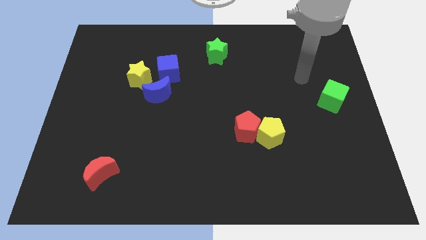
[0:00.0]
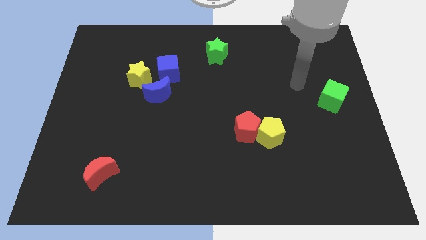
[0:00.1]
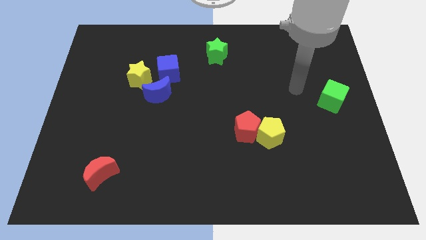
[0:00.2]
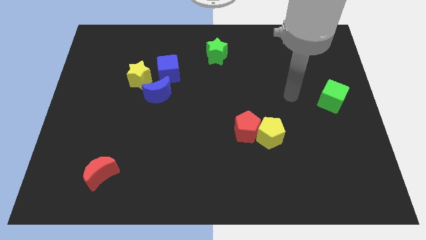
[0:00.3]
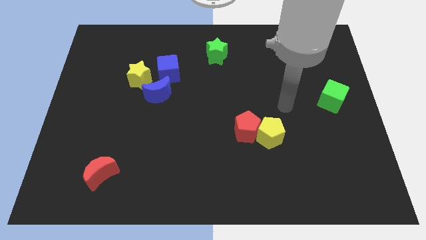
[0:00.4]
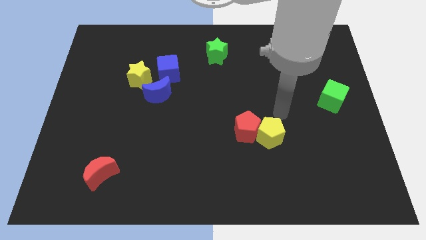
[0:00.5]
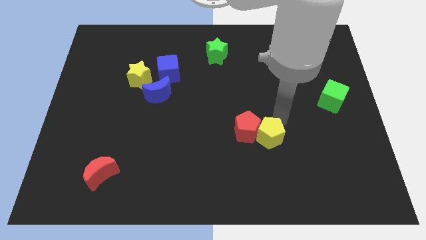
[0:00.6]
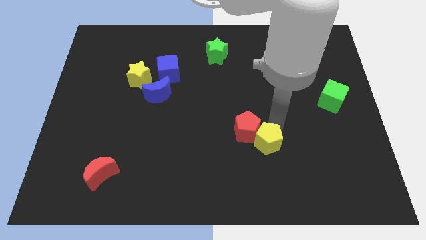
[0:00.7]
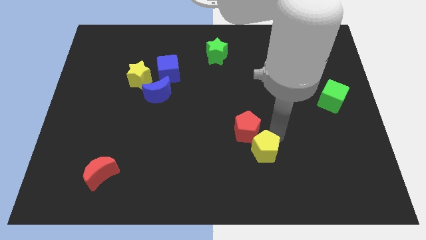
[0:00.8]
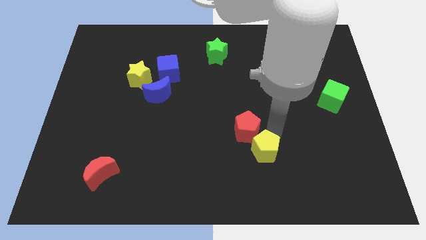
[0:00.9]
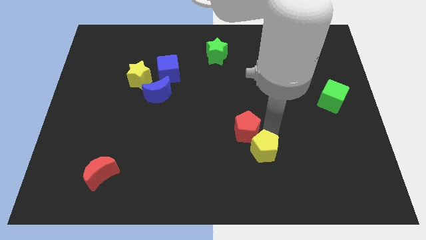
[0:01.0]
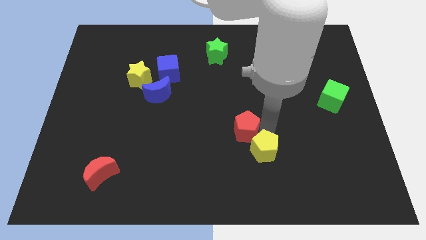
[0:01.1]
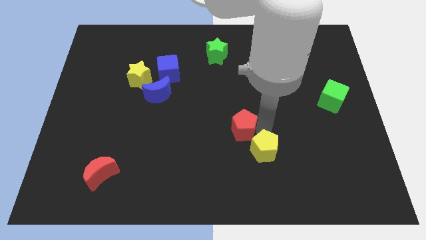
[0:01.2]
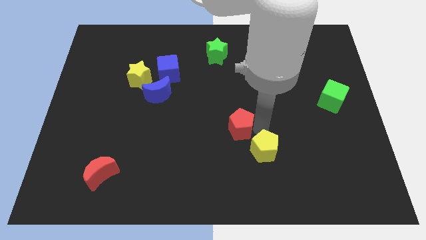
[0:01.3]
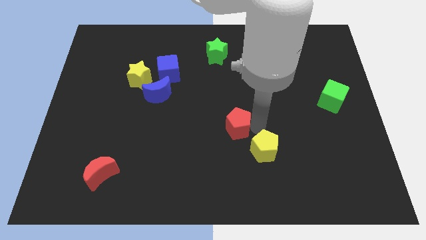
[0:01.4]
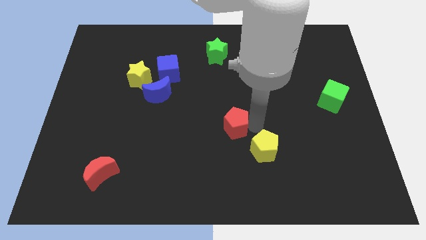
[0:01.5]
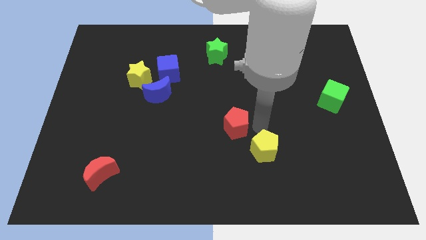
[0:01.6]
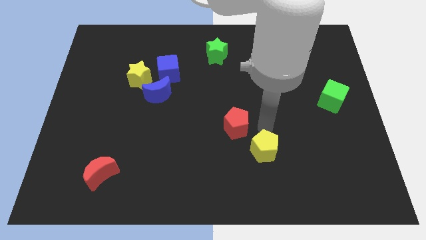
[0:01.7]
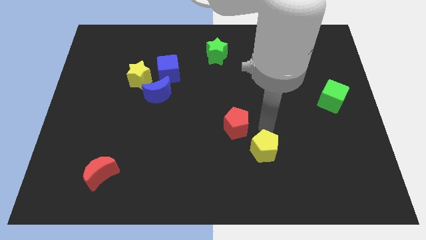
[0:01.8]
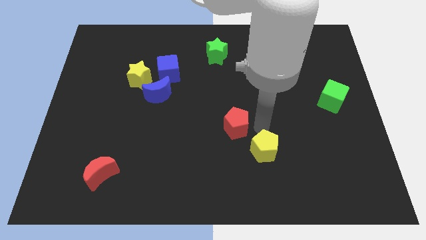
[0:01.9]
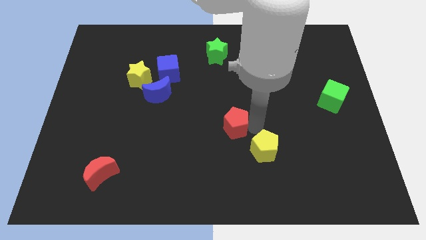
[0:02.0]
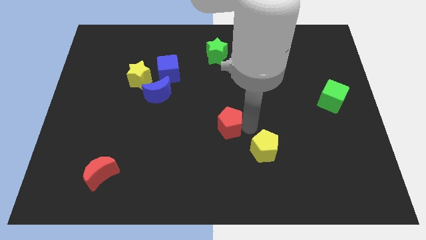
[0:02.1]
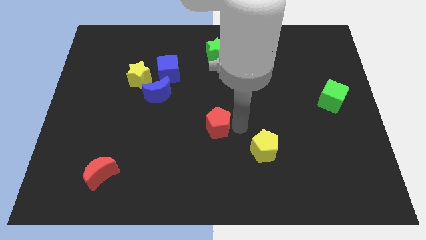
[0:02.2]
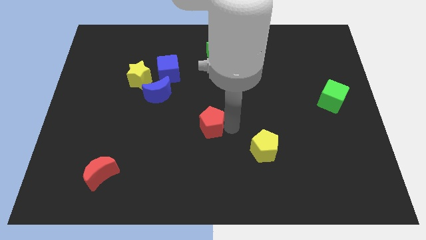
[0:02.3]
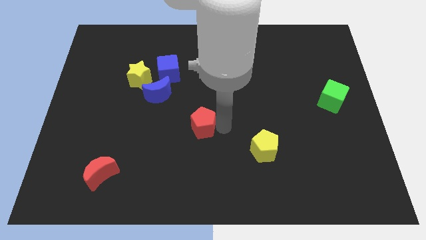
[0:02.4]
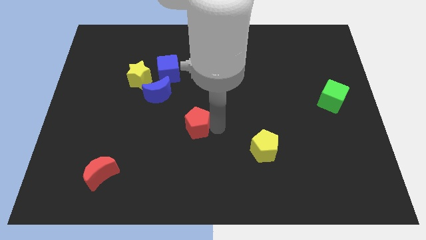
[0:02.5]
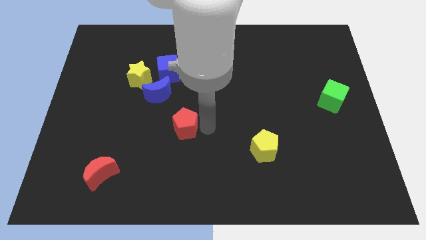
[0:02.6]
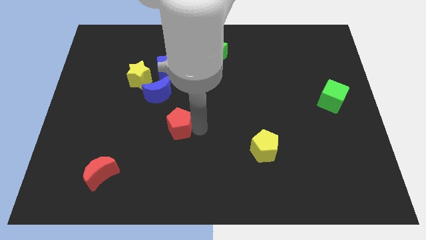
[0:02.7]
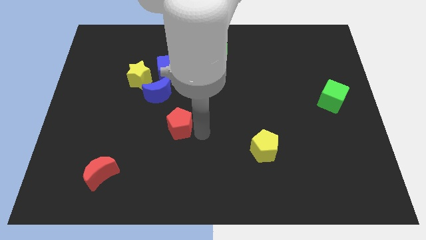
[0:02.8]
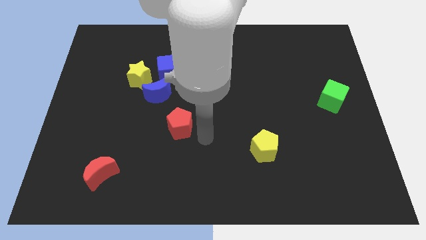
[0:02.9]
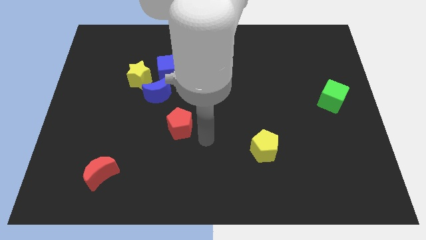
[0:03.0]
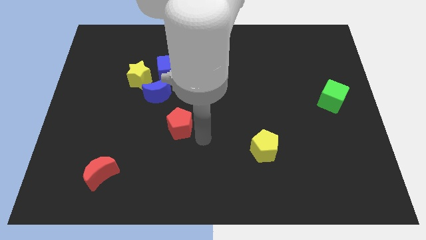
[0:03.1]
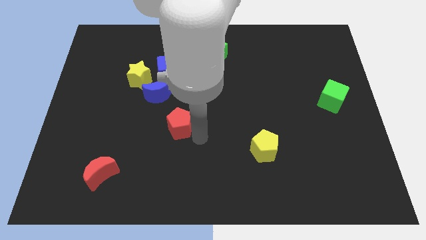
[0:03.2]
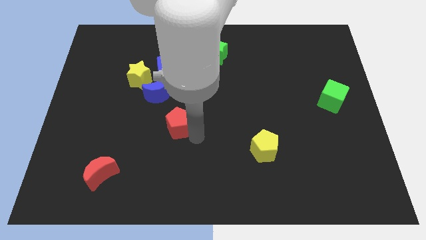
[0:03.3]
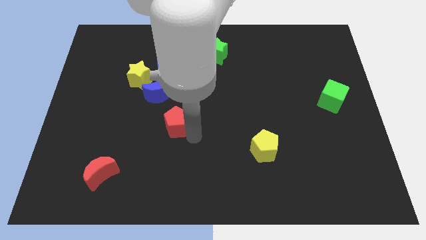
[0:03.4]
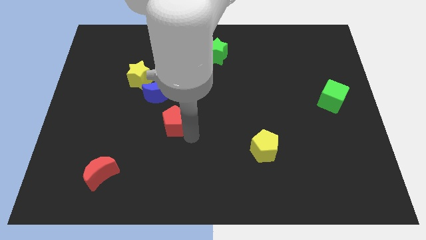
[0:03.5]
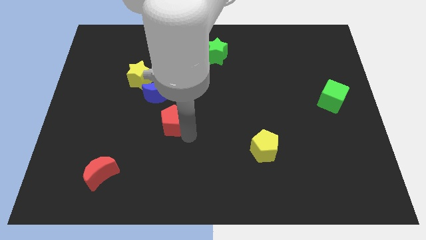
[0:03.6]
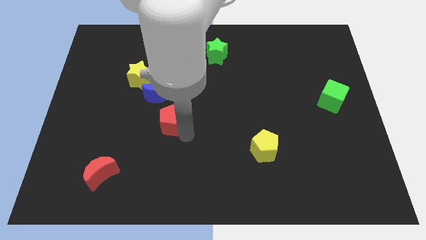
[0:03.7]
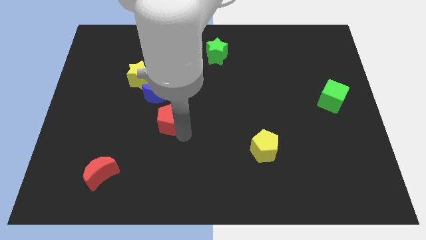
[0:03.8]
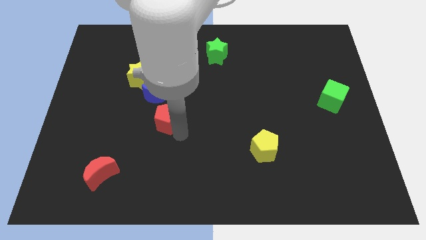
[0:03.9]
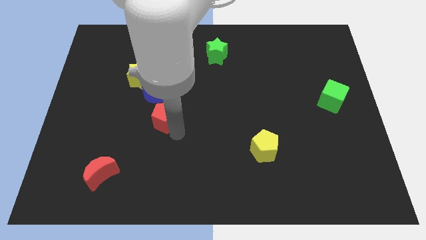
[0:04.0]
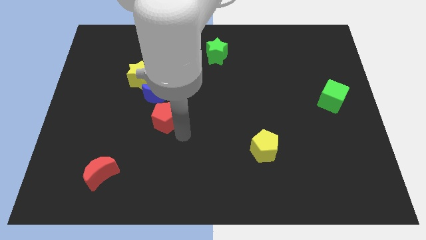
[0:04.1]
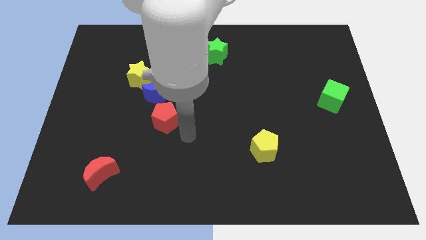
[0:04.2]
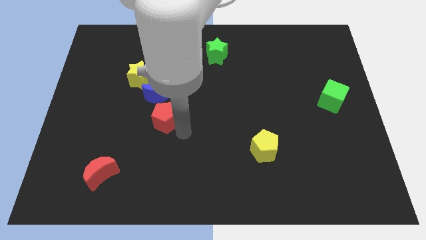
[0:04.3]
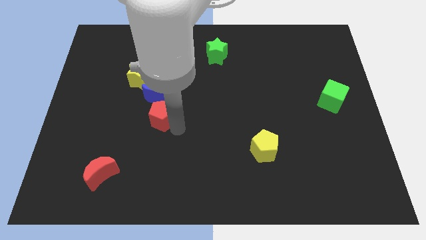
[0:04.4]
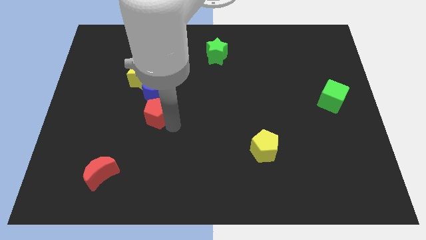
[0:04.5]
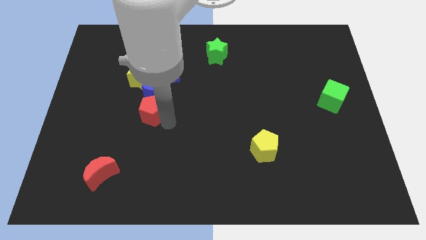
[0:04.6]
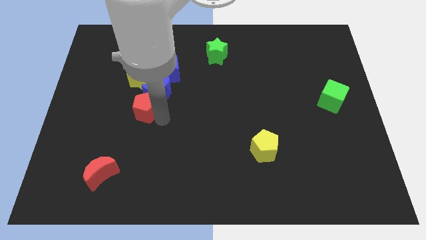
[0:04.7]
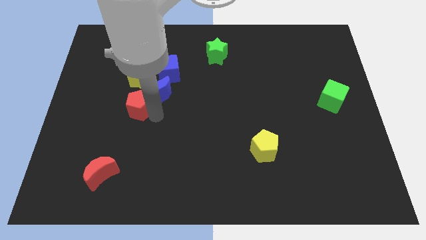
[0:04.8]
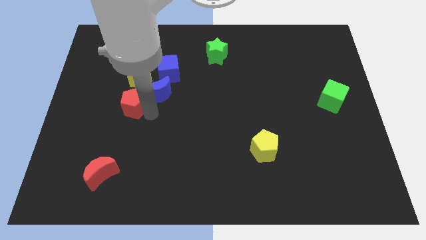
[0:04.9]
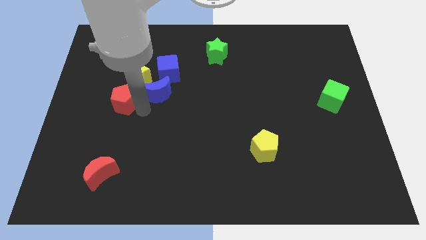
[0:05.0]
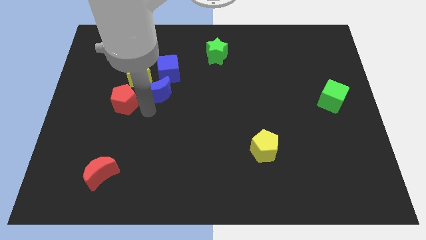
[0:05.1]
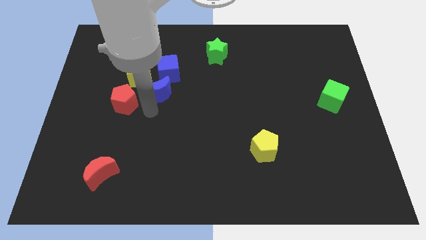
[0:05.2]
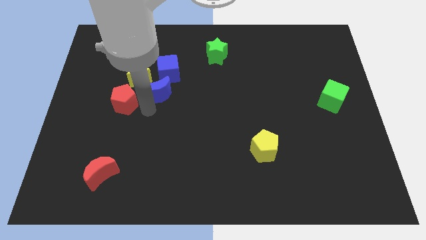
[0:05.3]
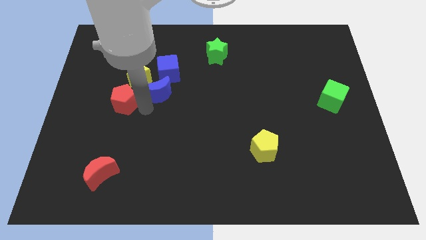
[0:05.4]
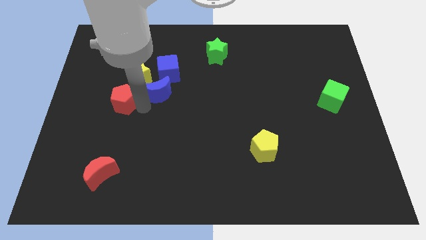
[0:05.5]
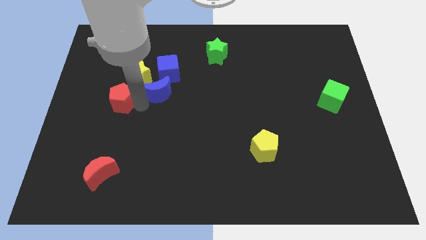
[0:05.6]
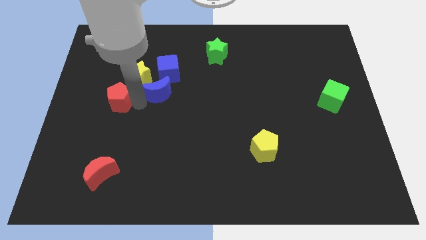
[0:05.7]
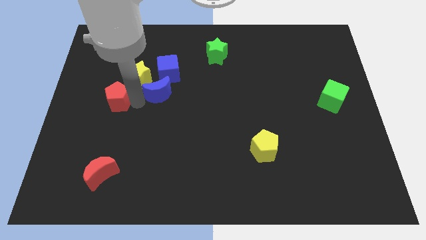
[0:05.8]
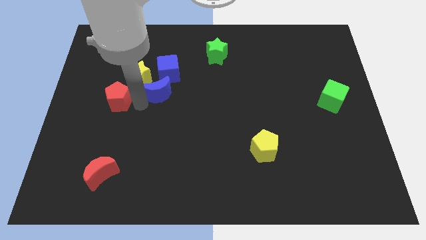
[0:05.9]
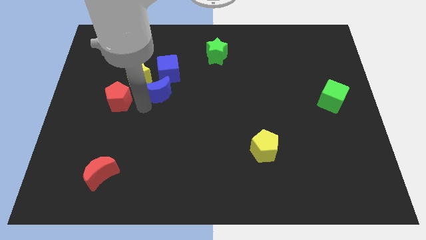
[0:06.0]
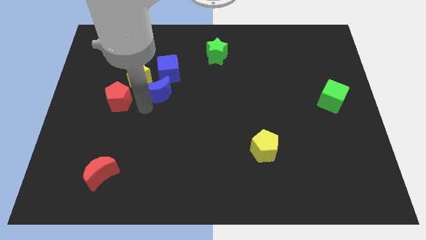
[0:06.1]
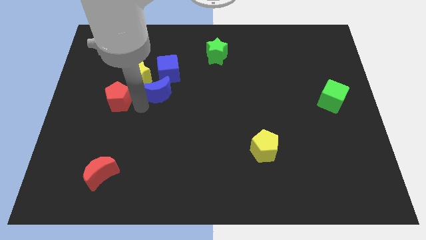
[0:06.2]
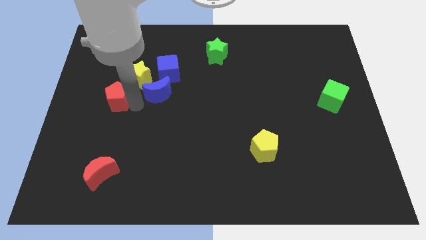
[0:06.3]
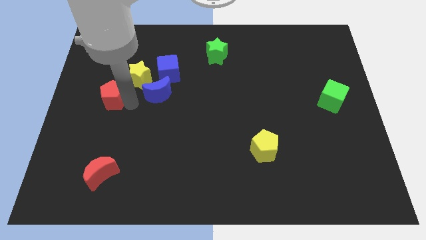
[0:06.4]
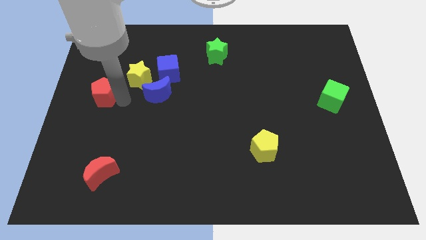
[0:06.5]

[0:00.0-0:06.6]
push the red pentagon to the left side

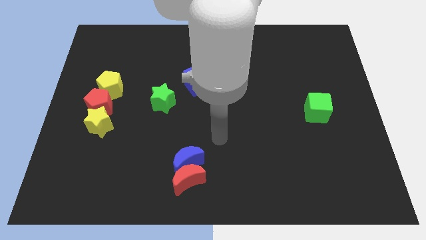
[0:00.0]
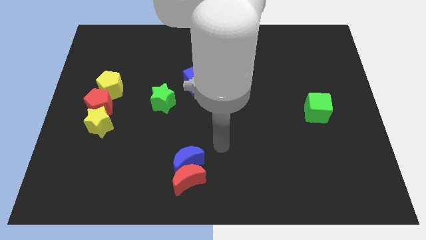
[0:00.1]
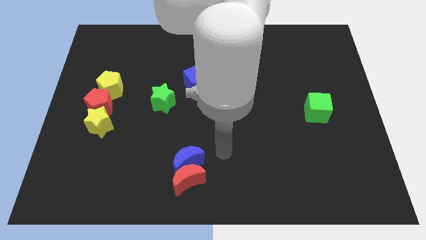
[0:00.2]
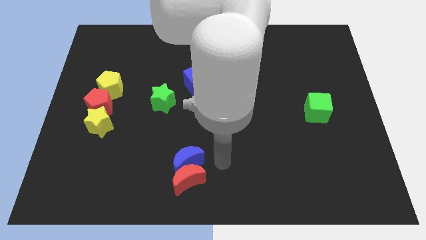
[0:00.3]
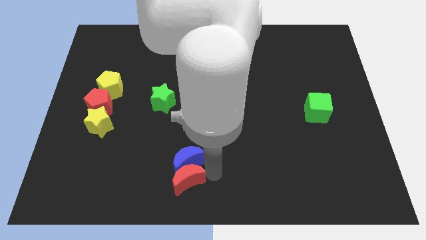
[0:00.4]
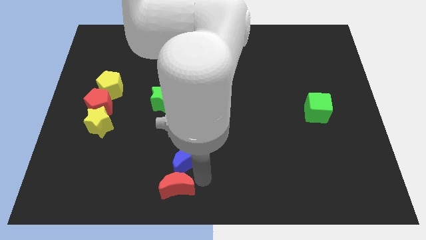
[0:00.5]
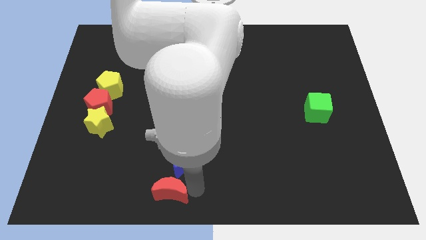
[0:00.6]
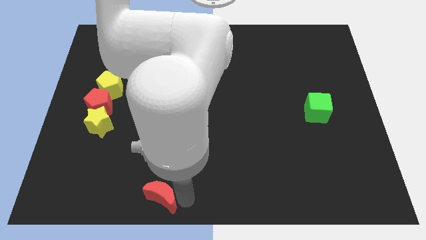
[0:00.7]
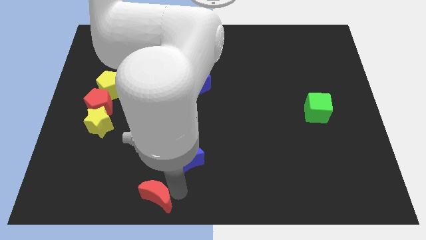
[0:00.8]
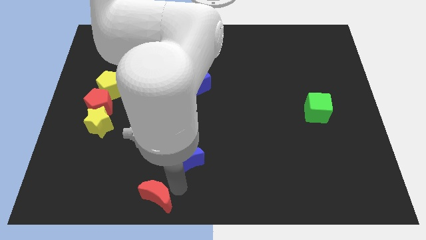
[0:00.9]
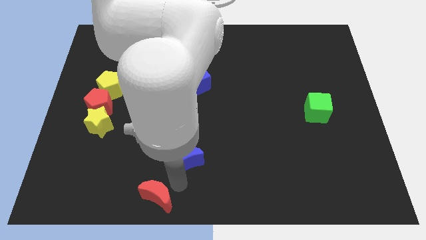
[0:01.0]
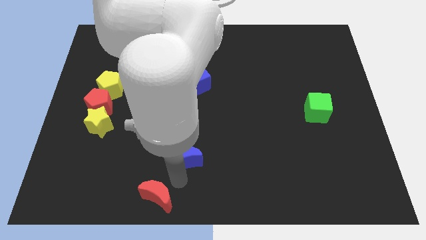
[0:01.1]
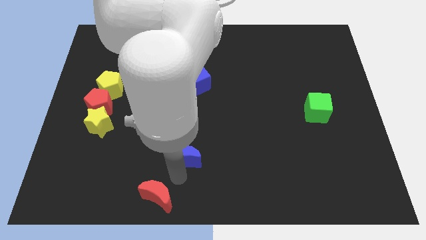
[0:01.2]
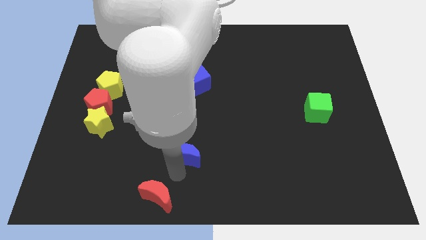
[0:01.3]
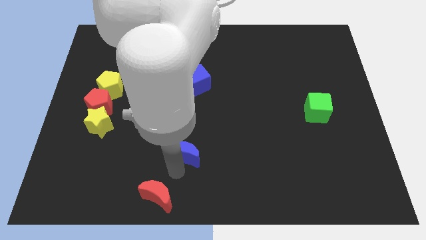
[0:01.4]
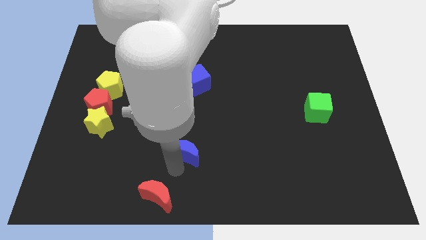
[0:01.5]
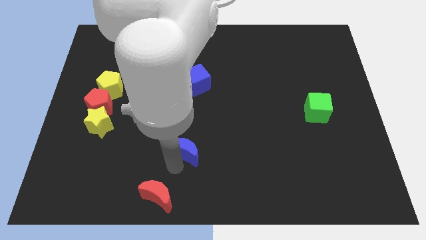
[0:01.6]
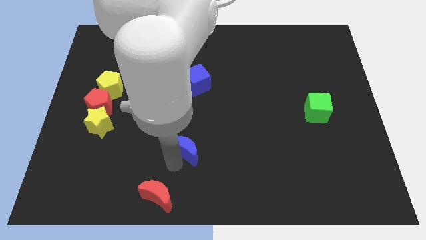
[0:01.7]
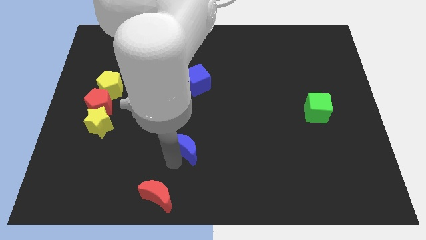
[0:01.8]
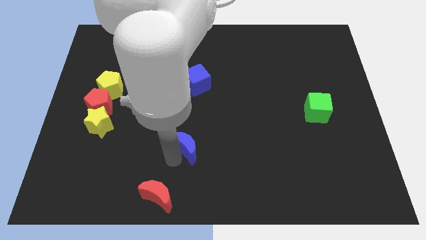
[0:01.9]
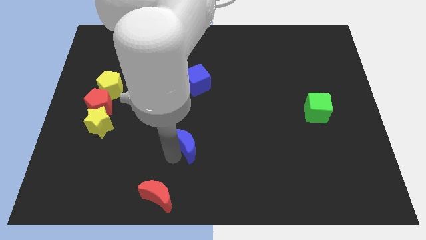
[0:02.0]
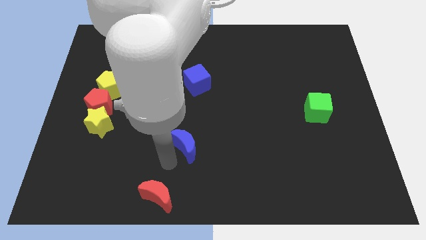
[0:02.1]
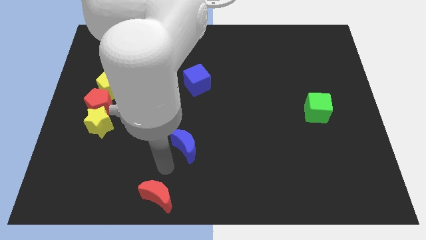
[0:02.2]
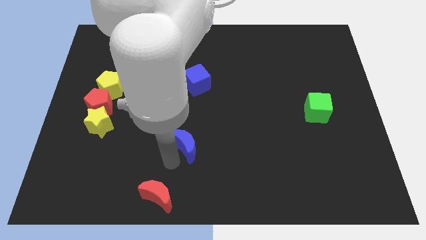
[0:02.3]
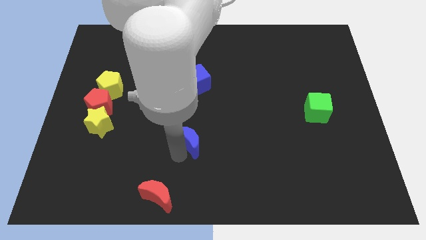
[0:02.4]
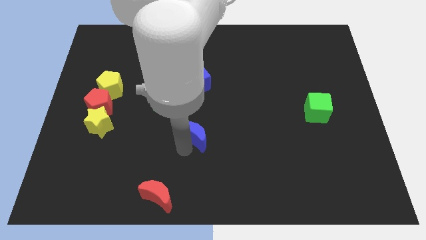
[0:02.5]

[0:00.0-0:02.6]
move the blue moon to the middle of the board
